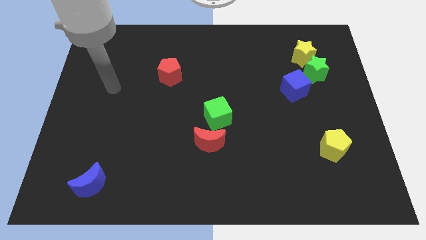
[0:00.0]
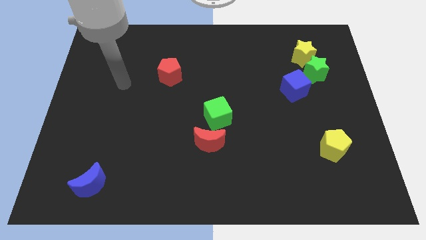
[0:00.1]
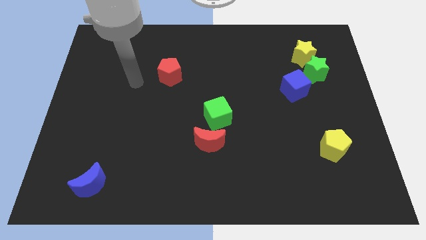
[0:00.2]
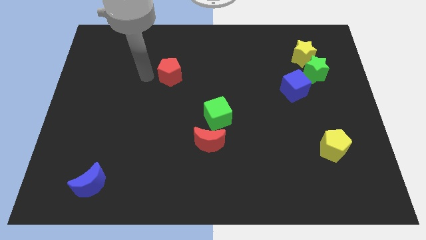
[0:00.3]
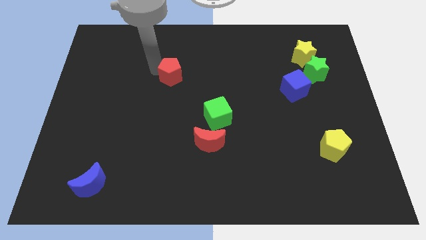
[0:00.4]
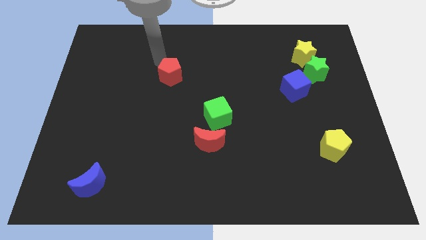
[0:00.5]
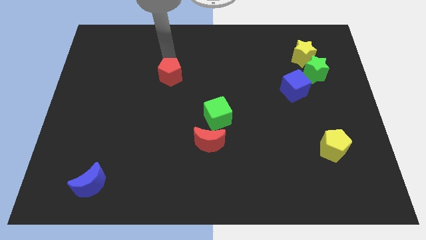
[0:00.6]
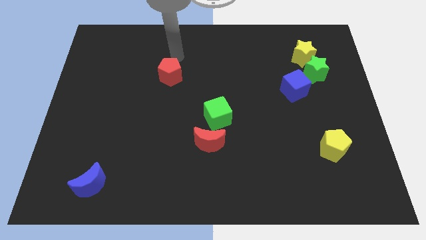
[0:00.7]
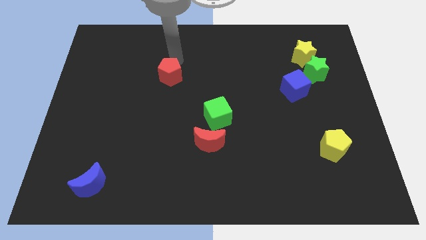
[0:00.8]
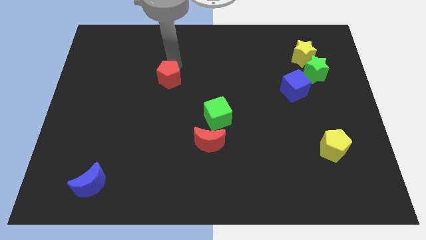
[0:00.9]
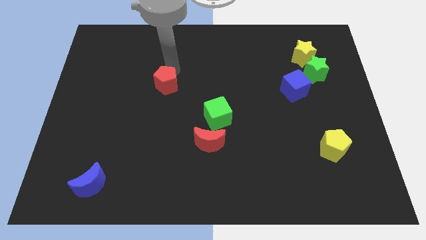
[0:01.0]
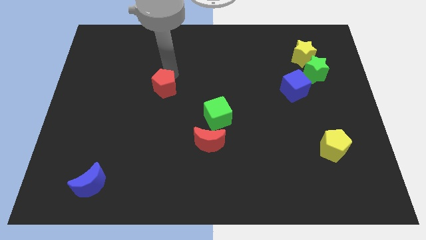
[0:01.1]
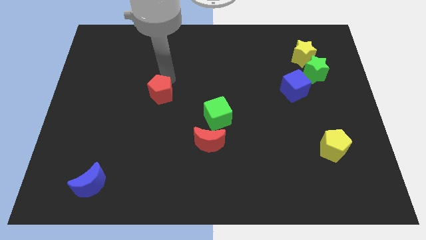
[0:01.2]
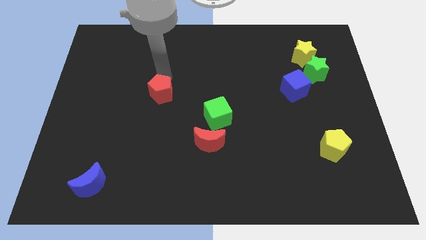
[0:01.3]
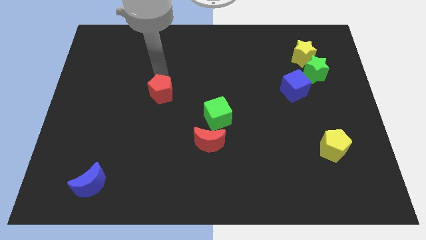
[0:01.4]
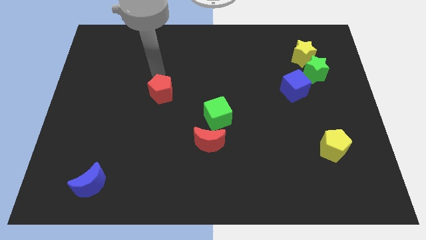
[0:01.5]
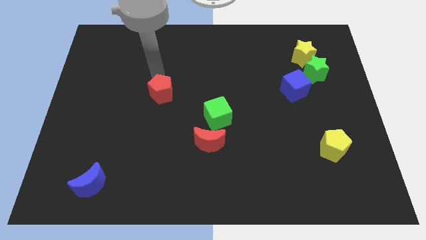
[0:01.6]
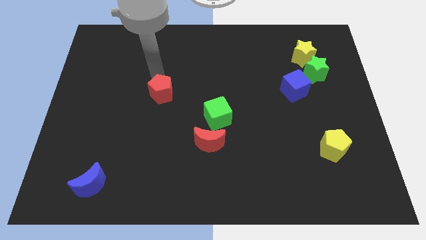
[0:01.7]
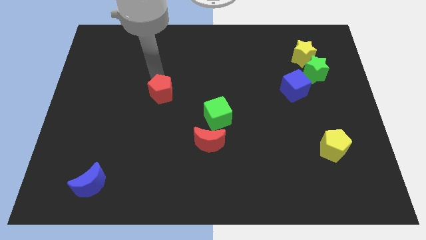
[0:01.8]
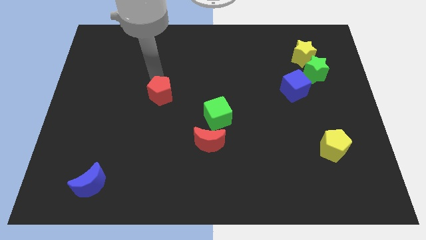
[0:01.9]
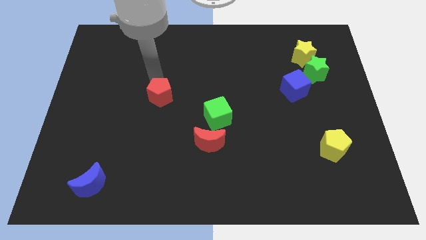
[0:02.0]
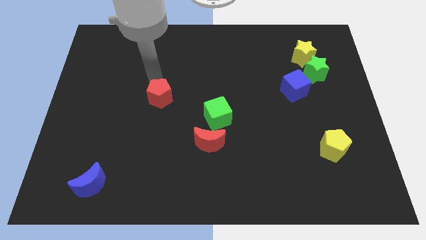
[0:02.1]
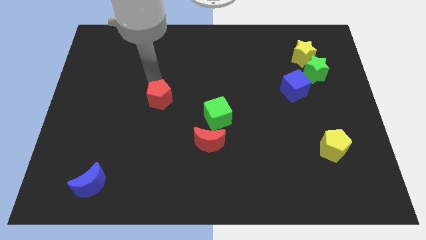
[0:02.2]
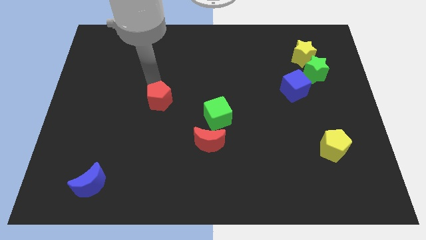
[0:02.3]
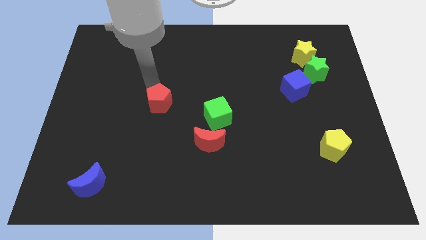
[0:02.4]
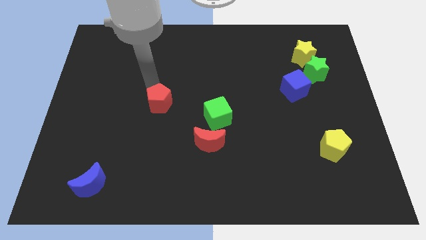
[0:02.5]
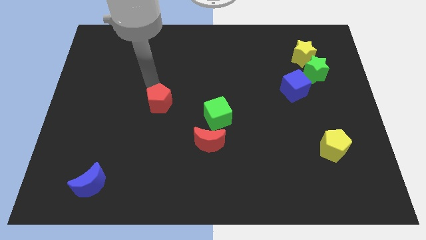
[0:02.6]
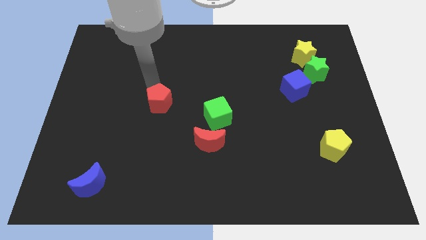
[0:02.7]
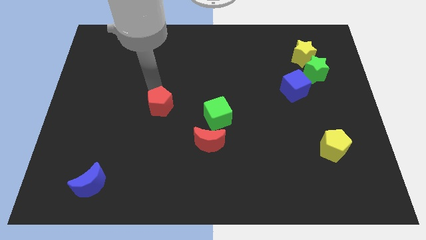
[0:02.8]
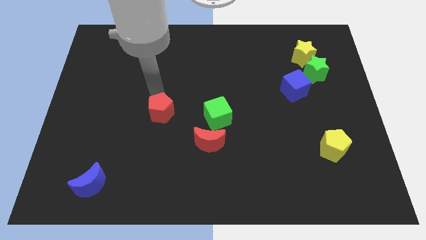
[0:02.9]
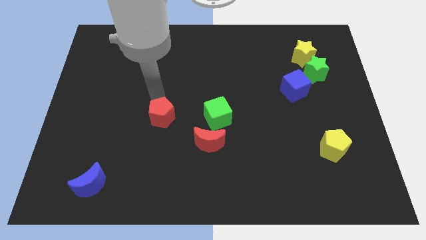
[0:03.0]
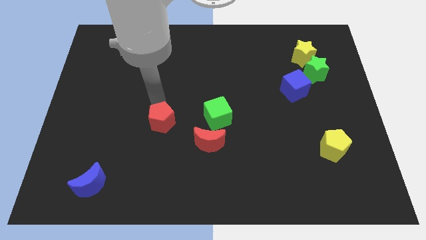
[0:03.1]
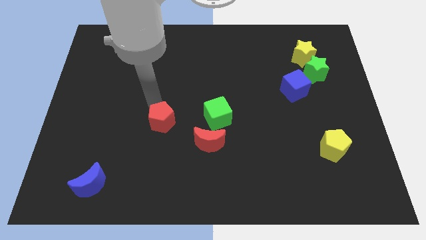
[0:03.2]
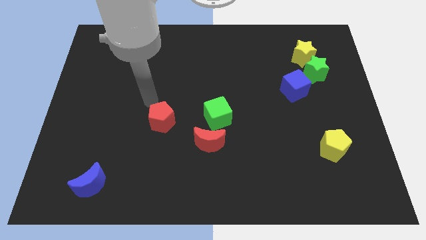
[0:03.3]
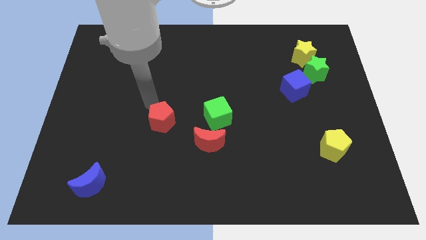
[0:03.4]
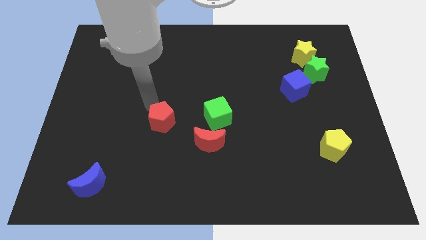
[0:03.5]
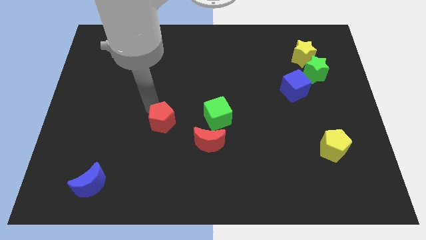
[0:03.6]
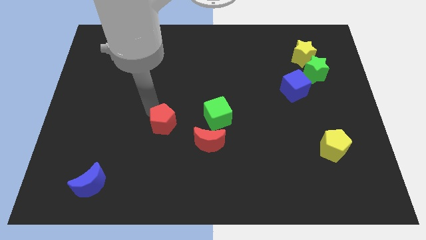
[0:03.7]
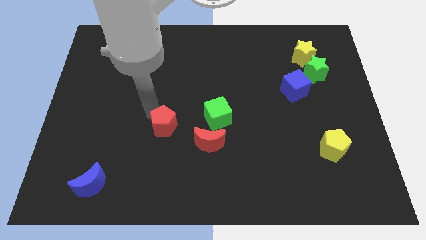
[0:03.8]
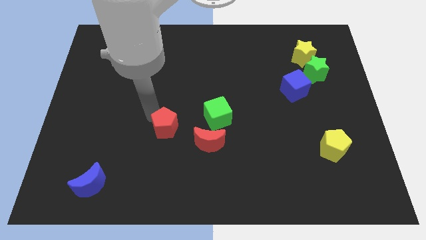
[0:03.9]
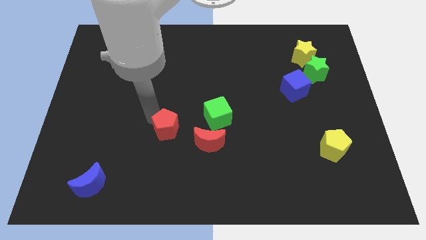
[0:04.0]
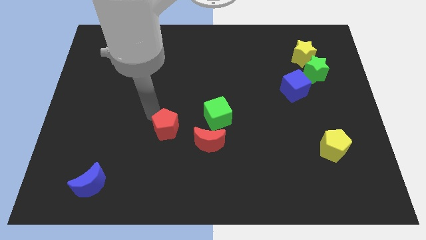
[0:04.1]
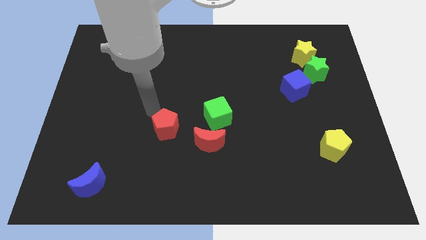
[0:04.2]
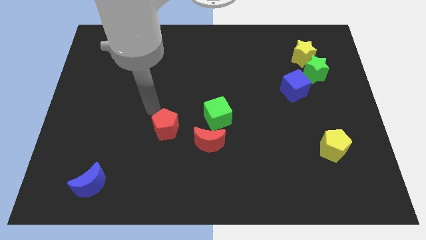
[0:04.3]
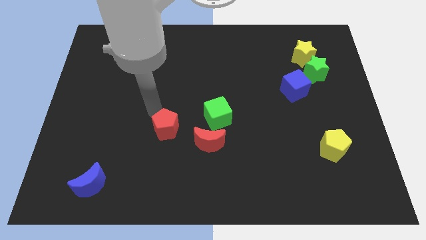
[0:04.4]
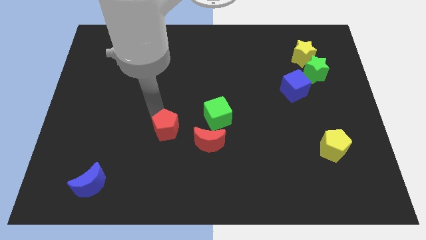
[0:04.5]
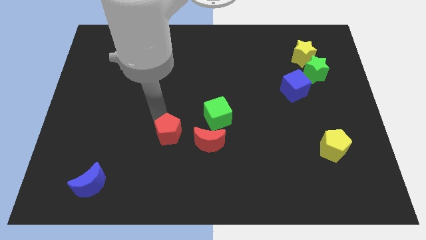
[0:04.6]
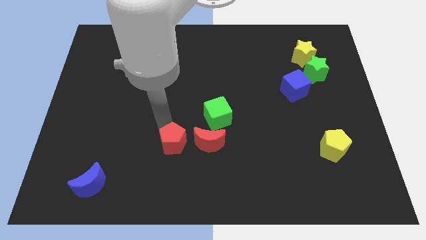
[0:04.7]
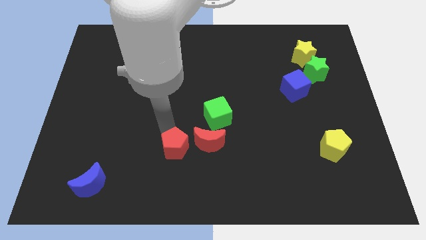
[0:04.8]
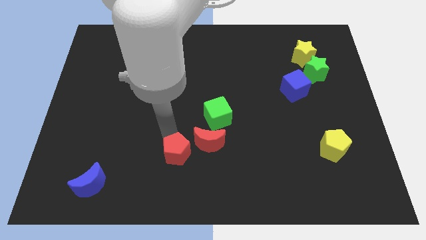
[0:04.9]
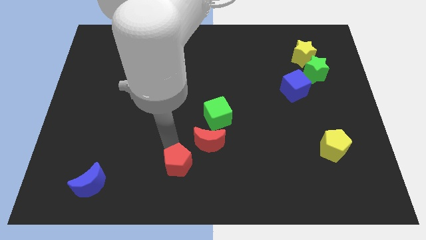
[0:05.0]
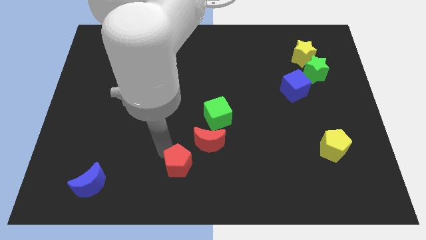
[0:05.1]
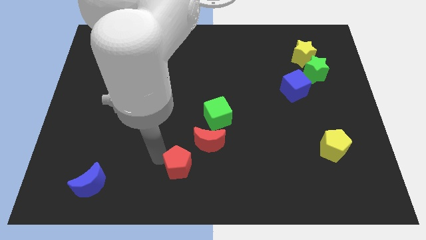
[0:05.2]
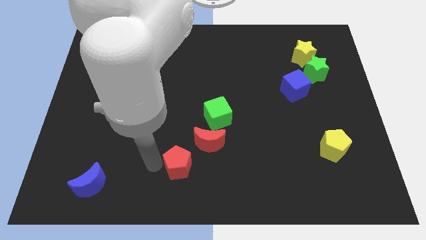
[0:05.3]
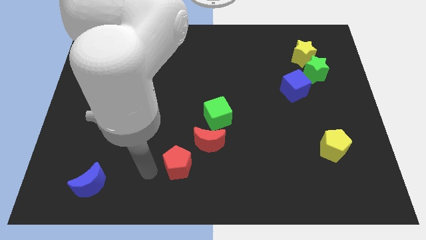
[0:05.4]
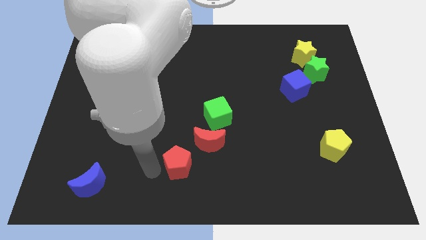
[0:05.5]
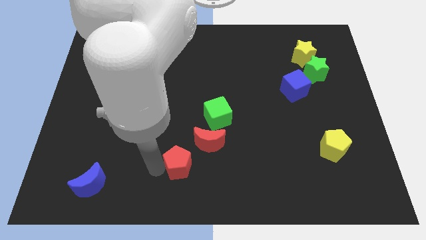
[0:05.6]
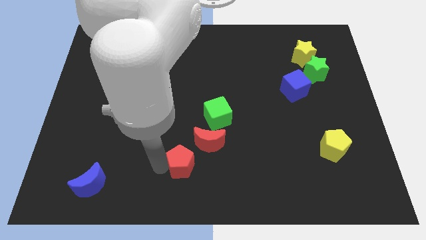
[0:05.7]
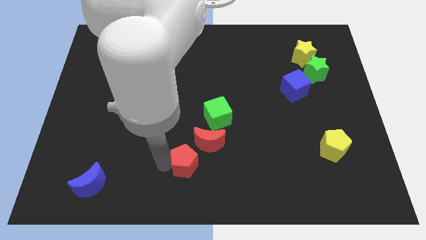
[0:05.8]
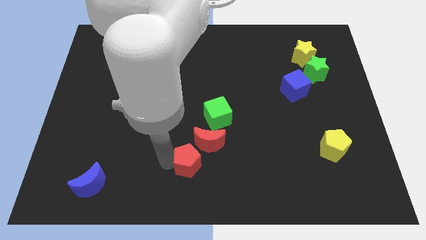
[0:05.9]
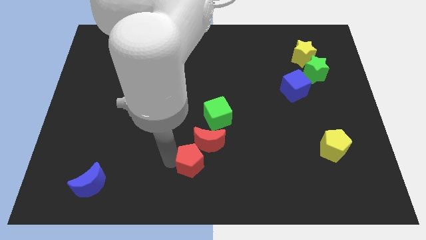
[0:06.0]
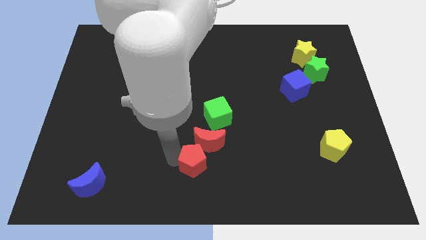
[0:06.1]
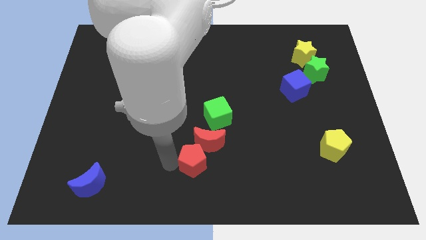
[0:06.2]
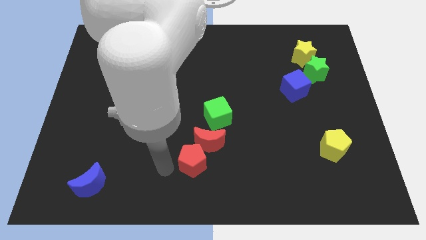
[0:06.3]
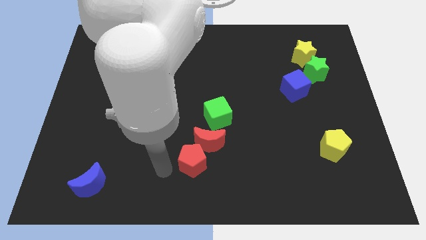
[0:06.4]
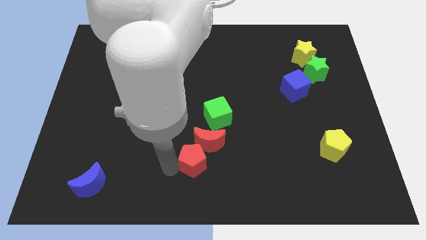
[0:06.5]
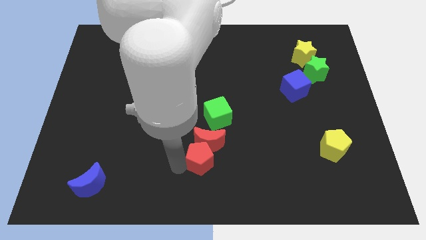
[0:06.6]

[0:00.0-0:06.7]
push the red pentagon below the green cube

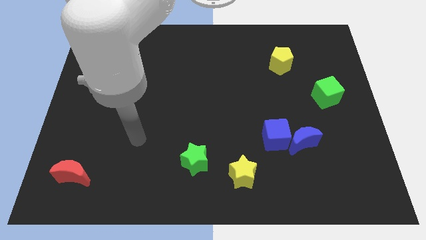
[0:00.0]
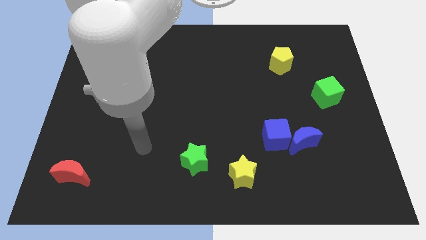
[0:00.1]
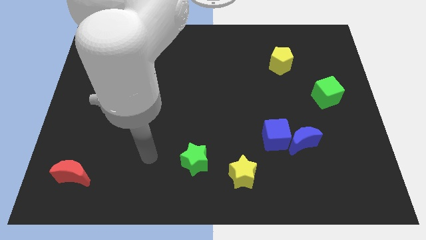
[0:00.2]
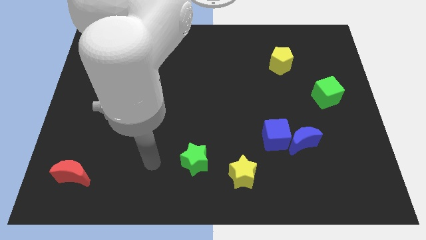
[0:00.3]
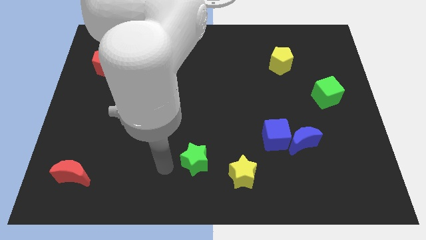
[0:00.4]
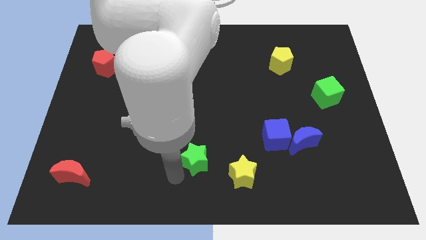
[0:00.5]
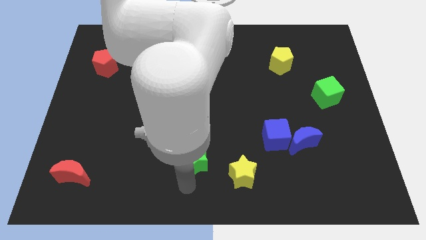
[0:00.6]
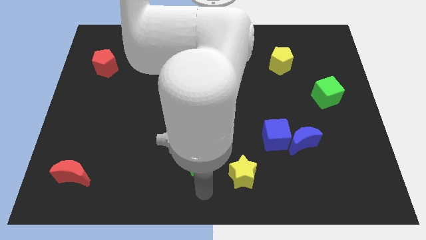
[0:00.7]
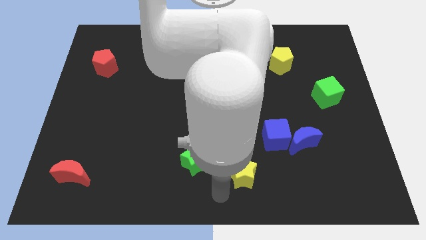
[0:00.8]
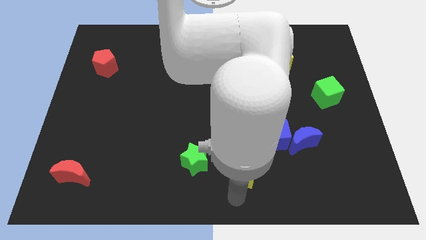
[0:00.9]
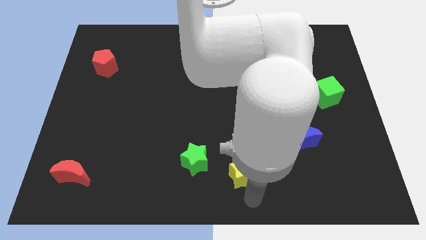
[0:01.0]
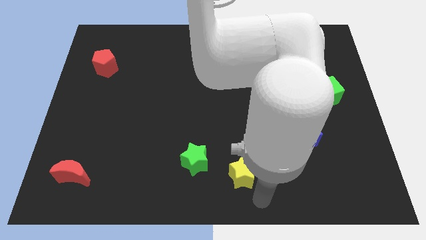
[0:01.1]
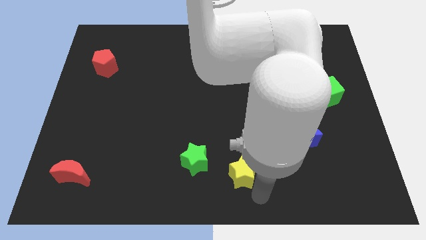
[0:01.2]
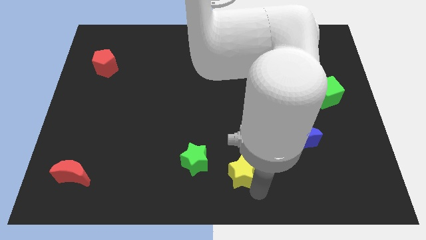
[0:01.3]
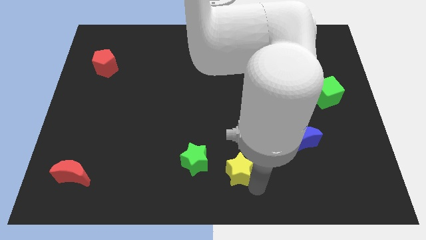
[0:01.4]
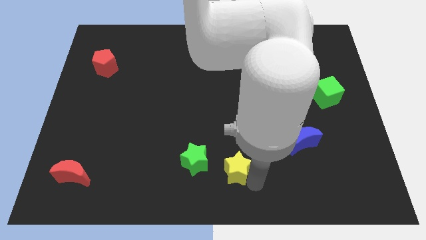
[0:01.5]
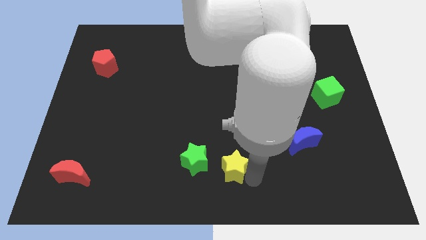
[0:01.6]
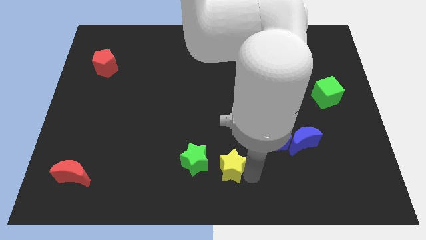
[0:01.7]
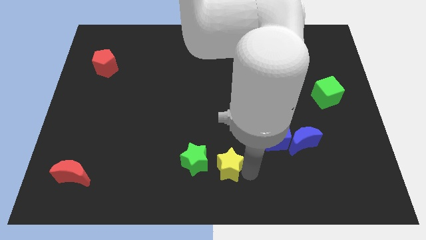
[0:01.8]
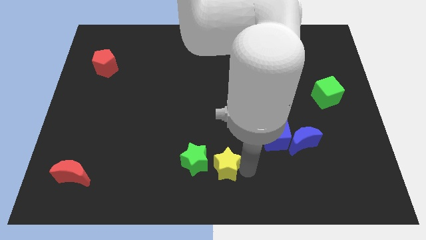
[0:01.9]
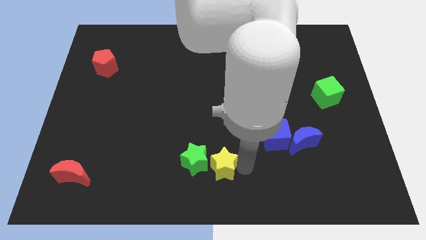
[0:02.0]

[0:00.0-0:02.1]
put the yellow star to the top right side of the green star
